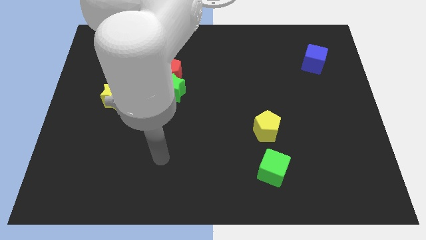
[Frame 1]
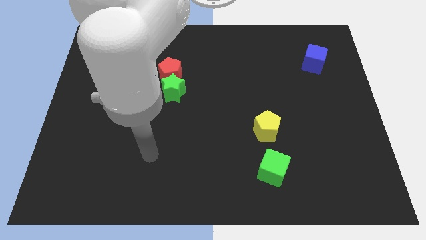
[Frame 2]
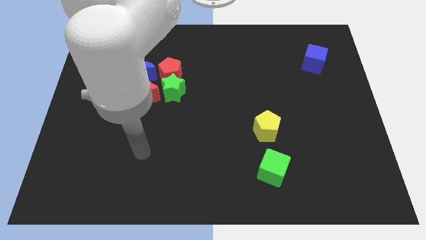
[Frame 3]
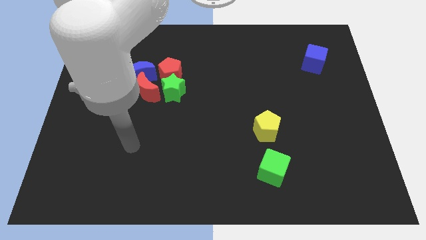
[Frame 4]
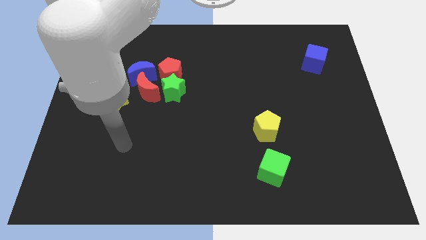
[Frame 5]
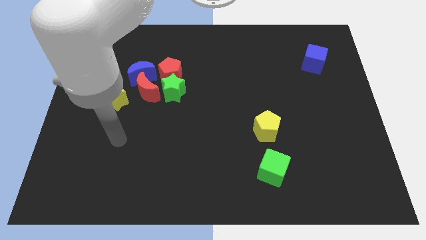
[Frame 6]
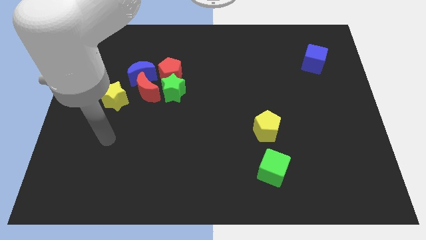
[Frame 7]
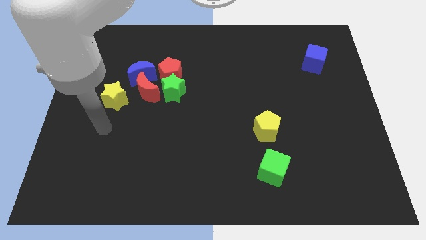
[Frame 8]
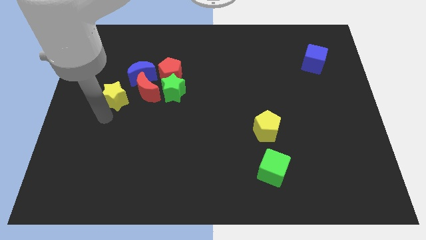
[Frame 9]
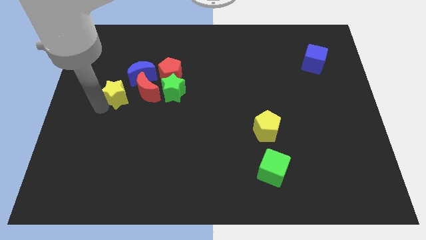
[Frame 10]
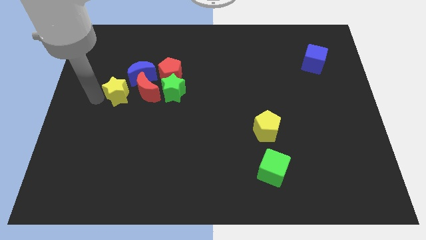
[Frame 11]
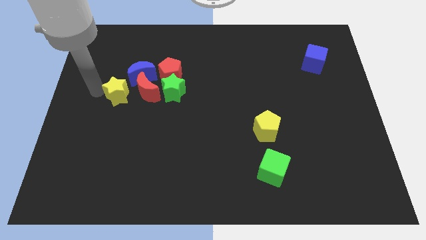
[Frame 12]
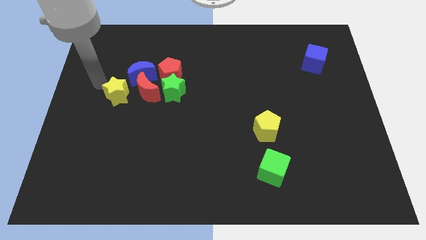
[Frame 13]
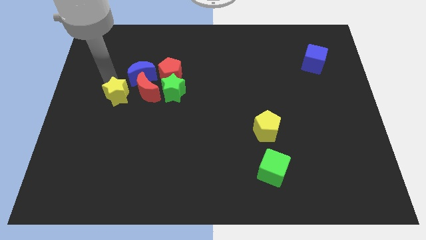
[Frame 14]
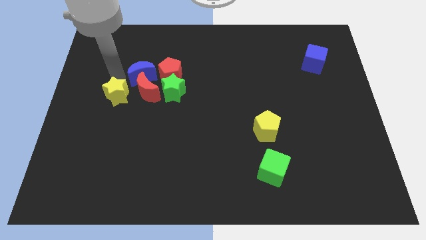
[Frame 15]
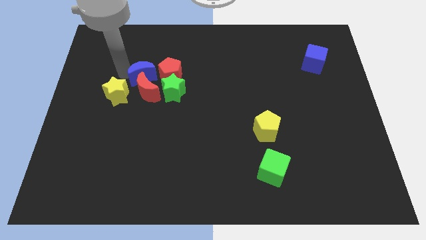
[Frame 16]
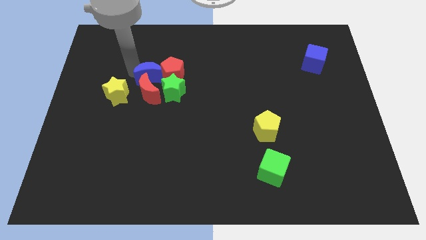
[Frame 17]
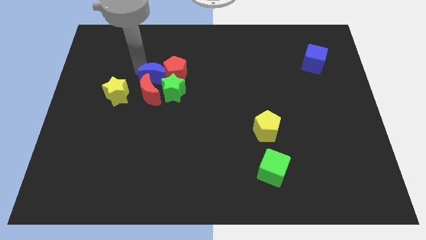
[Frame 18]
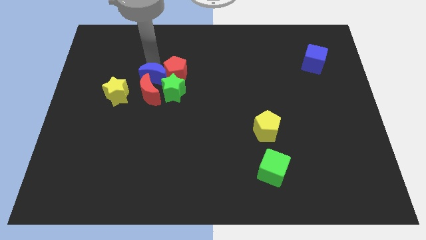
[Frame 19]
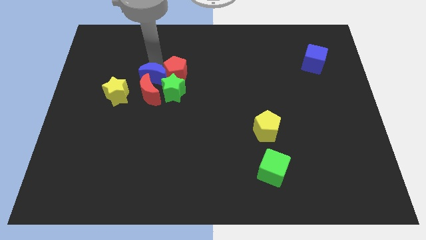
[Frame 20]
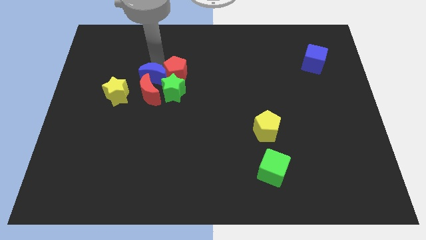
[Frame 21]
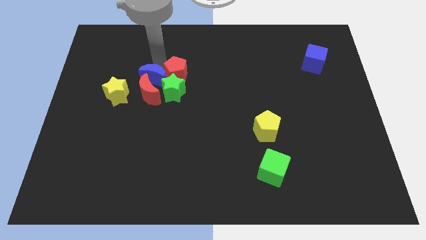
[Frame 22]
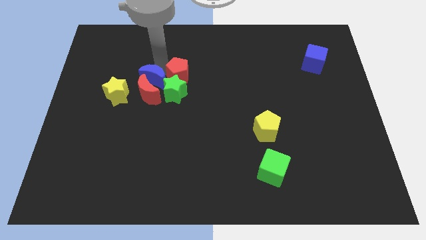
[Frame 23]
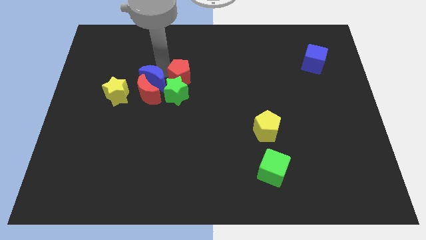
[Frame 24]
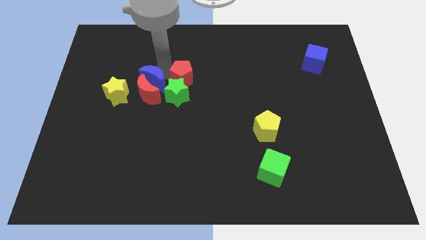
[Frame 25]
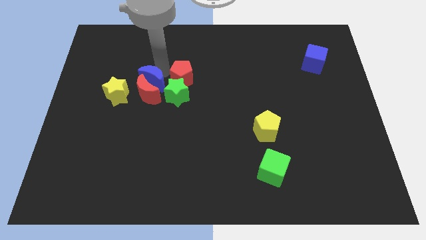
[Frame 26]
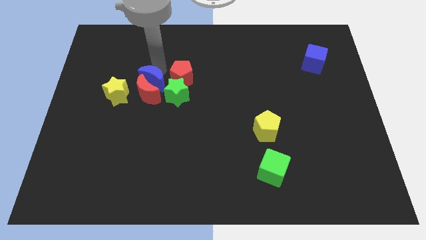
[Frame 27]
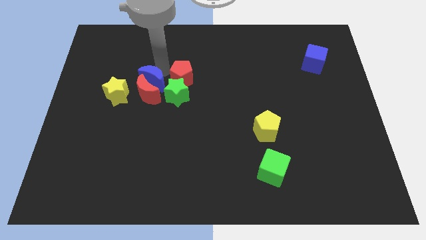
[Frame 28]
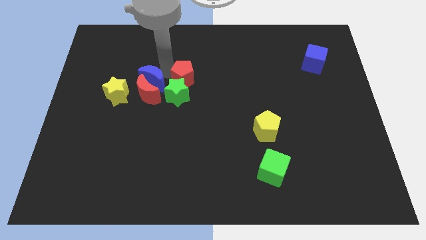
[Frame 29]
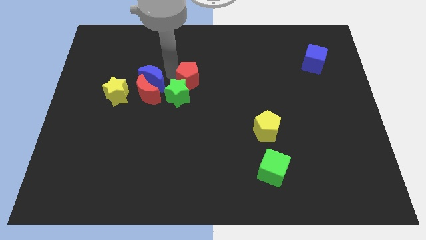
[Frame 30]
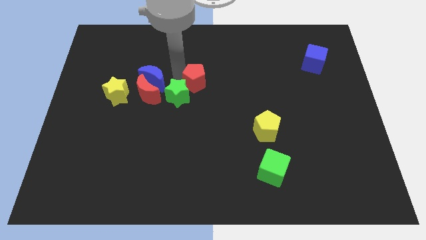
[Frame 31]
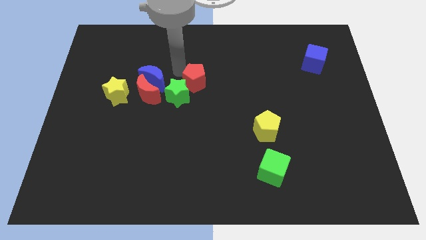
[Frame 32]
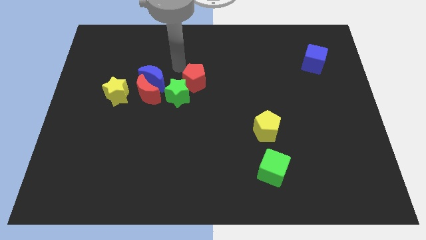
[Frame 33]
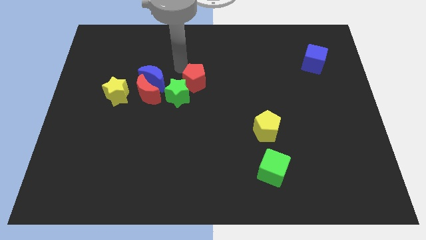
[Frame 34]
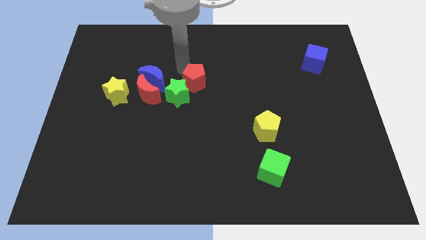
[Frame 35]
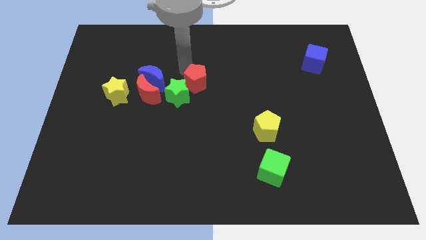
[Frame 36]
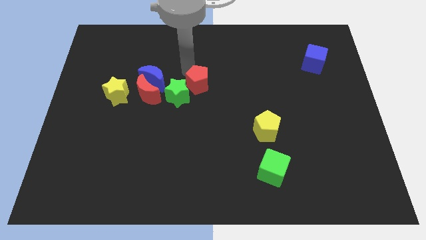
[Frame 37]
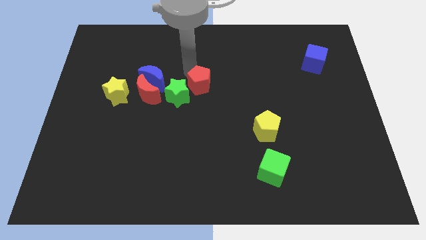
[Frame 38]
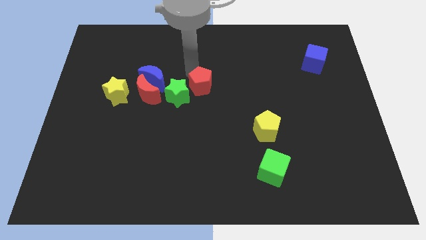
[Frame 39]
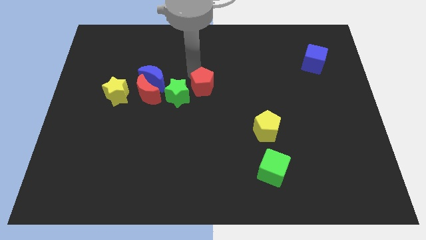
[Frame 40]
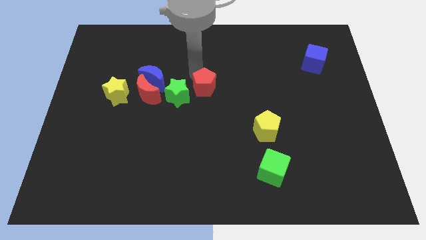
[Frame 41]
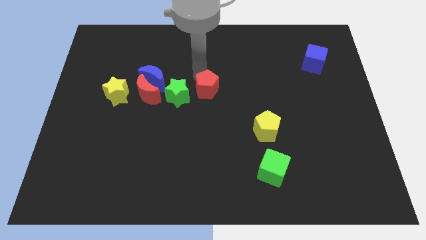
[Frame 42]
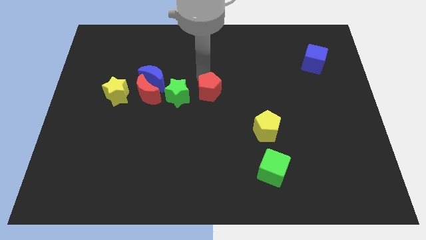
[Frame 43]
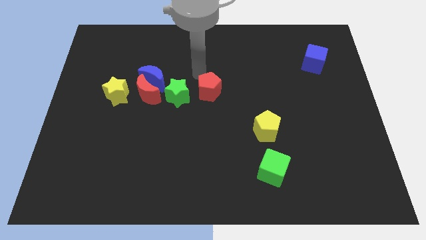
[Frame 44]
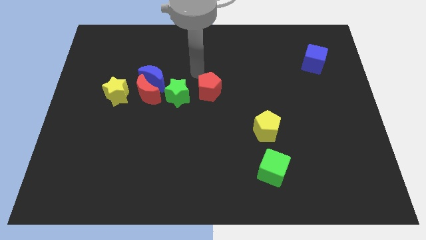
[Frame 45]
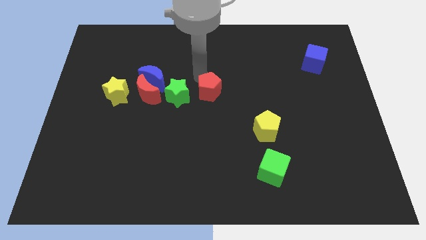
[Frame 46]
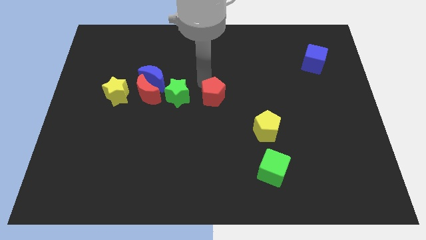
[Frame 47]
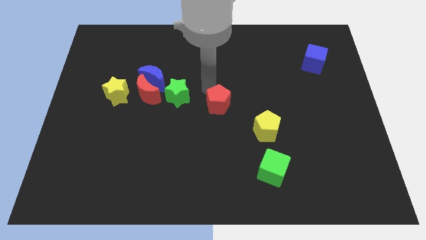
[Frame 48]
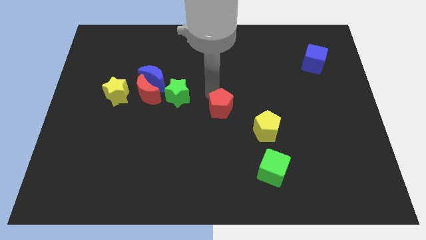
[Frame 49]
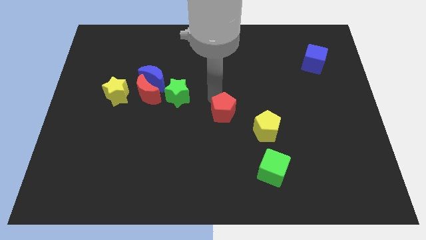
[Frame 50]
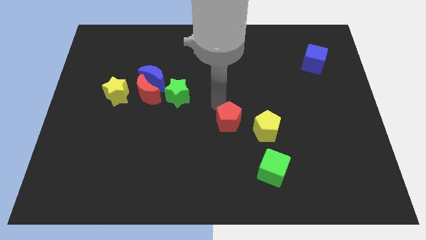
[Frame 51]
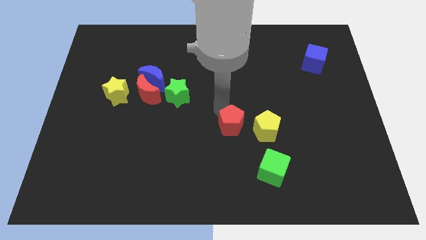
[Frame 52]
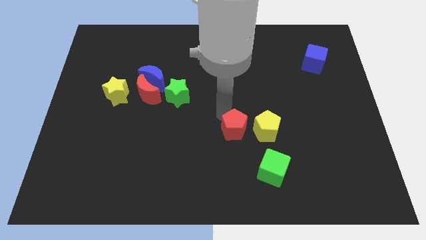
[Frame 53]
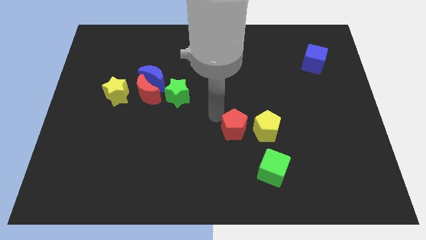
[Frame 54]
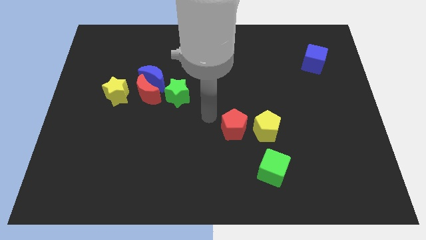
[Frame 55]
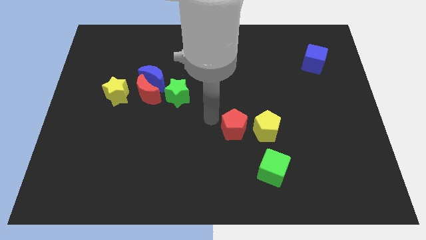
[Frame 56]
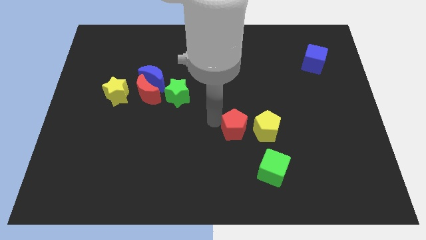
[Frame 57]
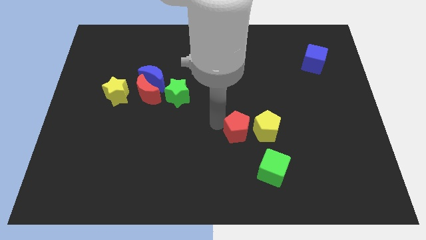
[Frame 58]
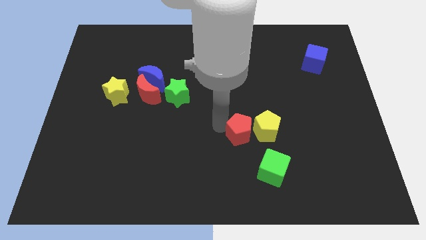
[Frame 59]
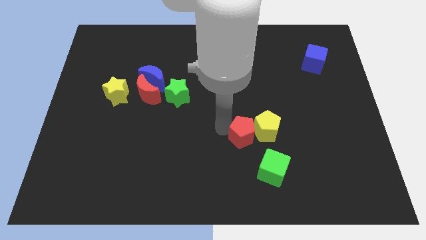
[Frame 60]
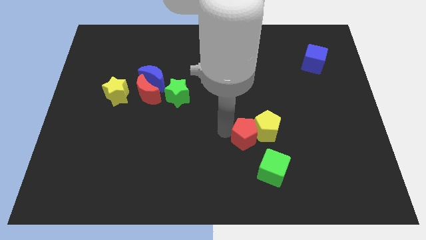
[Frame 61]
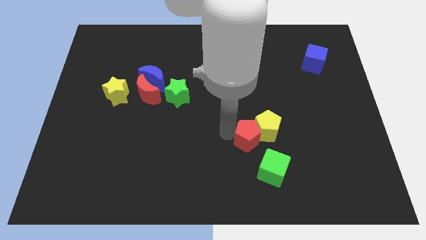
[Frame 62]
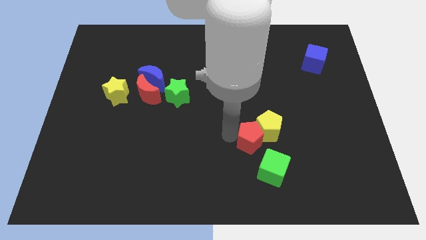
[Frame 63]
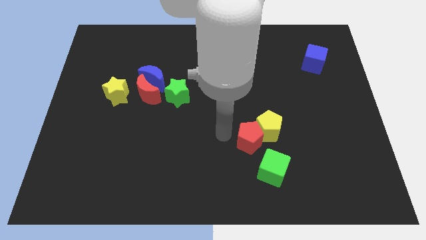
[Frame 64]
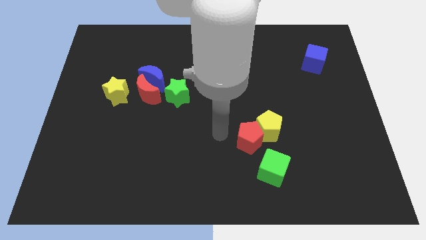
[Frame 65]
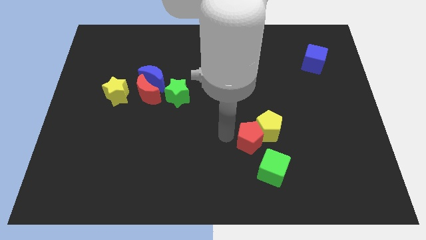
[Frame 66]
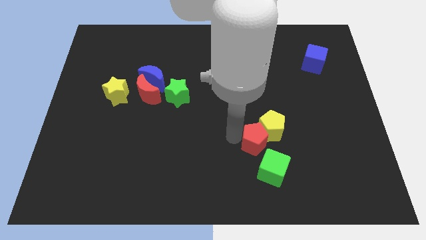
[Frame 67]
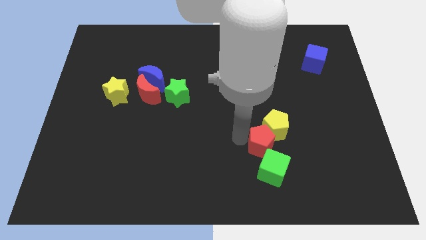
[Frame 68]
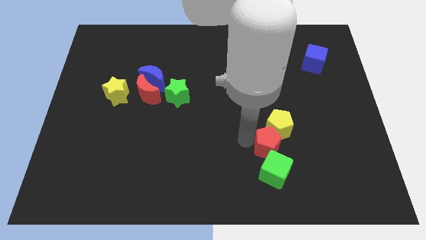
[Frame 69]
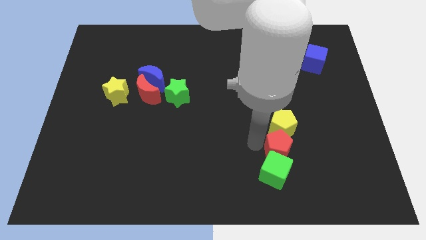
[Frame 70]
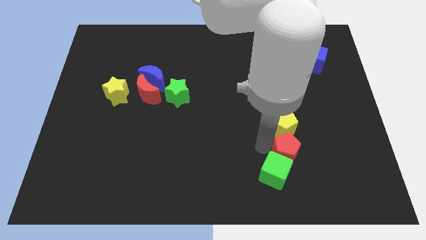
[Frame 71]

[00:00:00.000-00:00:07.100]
put the red pentagon to the bottom right side of the yellow pentagon
